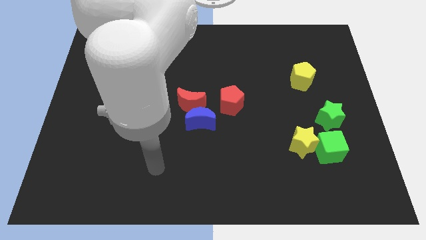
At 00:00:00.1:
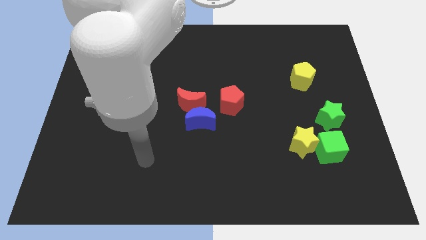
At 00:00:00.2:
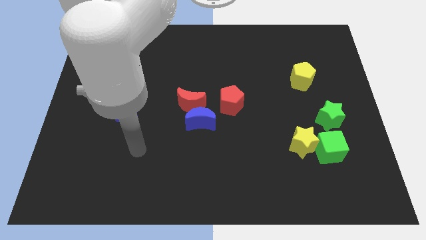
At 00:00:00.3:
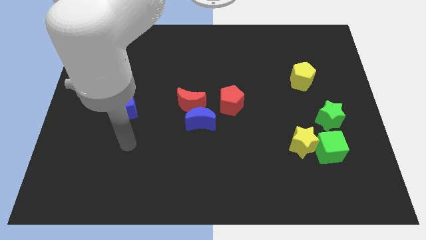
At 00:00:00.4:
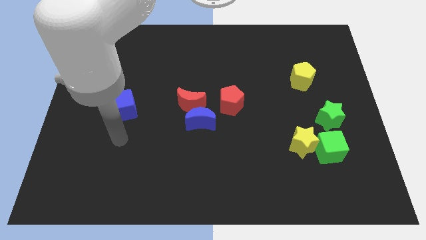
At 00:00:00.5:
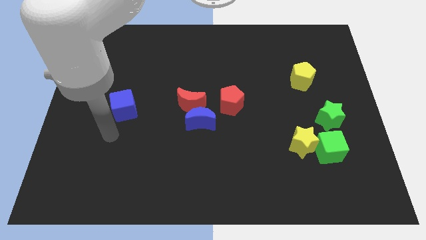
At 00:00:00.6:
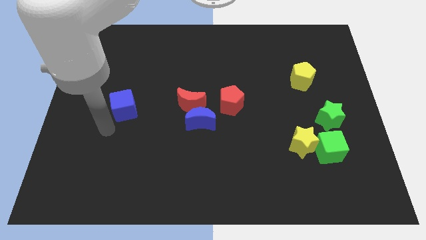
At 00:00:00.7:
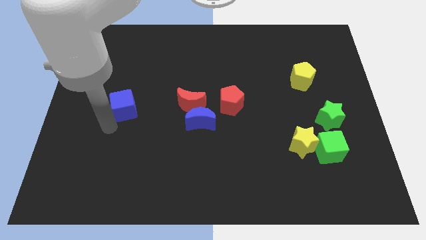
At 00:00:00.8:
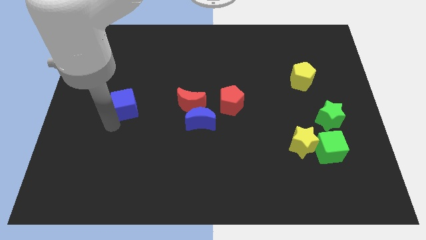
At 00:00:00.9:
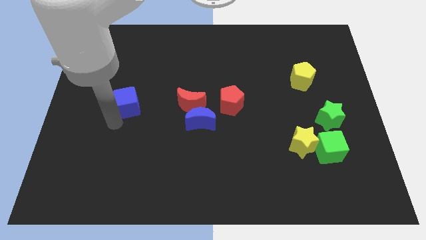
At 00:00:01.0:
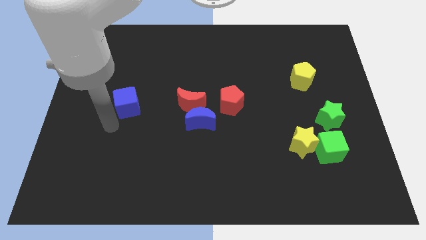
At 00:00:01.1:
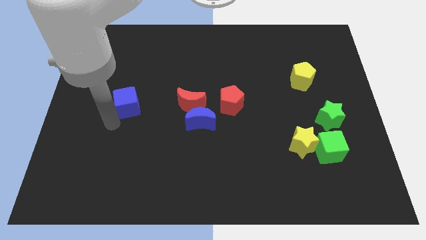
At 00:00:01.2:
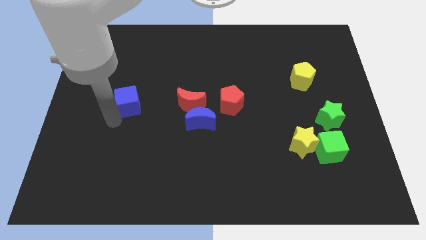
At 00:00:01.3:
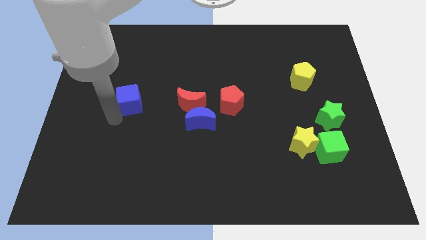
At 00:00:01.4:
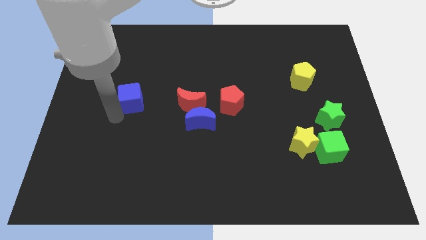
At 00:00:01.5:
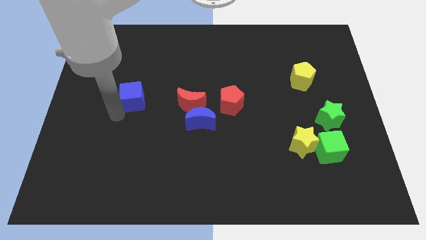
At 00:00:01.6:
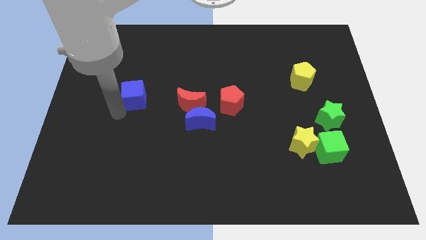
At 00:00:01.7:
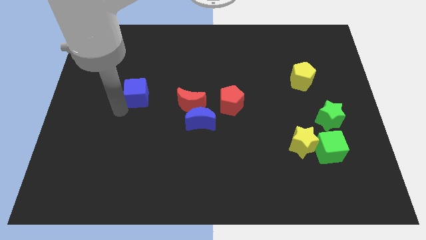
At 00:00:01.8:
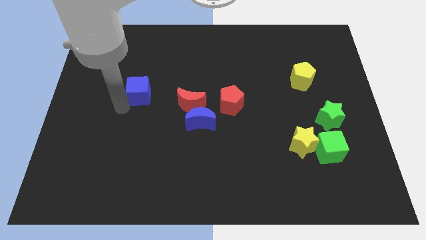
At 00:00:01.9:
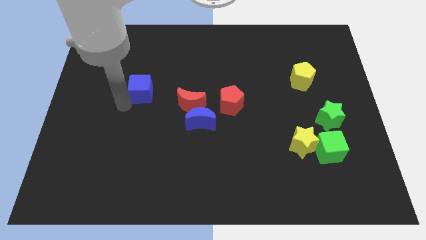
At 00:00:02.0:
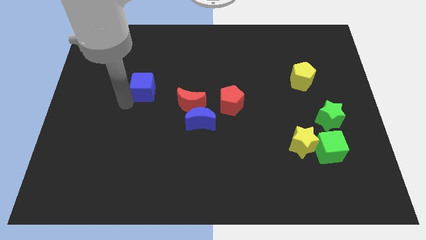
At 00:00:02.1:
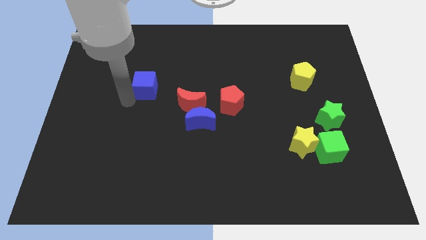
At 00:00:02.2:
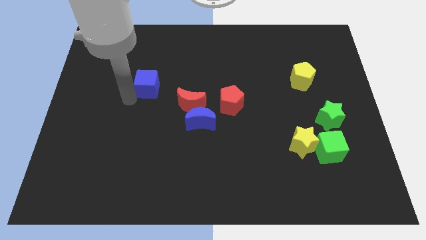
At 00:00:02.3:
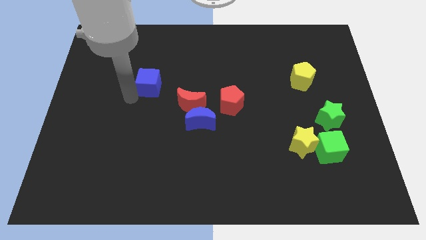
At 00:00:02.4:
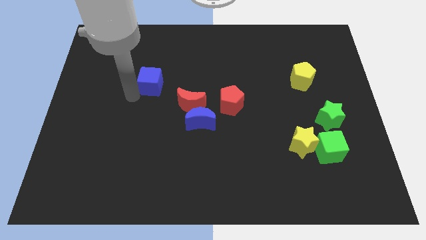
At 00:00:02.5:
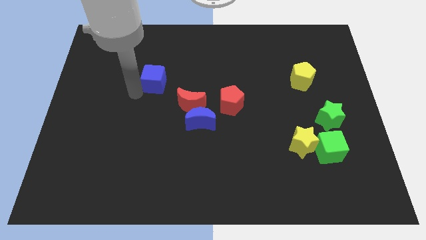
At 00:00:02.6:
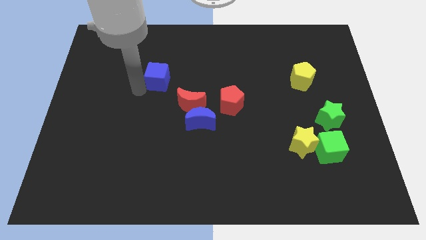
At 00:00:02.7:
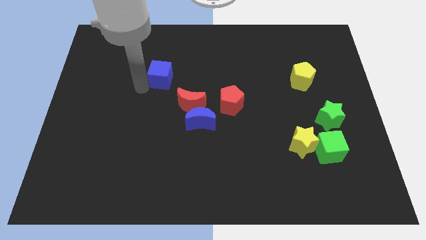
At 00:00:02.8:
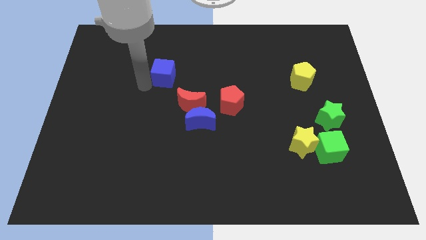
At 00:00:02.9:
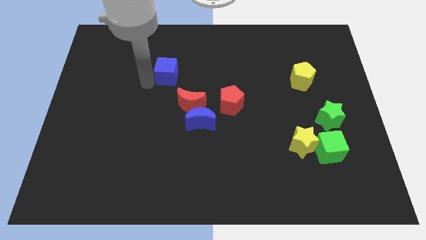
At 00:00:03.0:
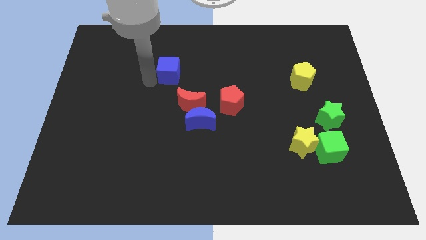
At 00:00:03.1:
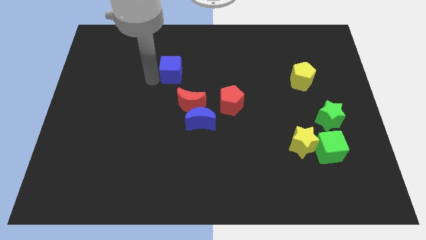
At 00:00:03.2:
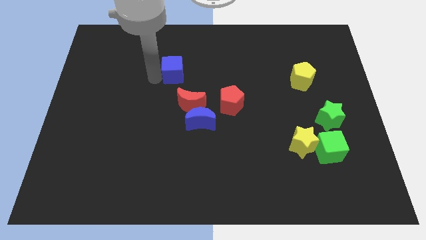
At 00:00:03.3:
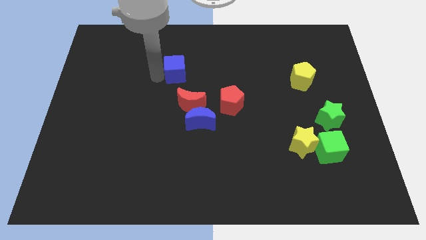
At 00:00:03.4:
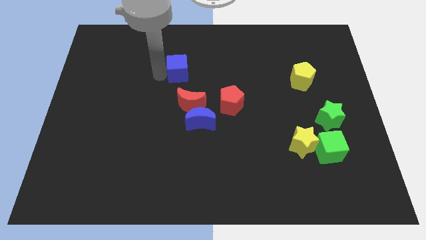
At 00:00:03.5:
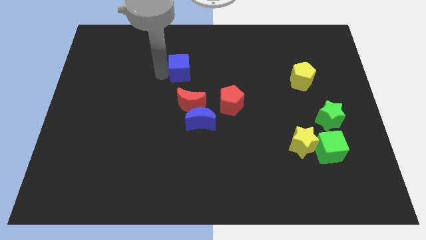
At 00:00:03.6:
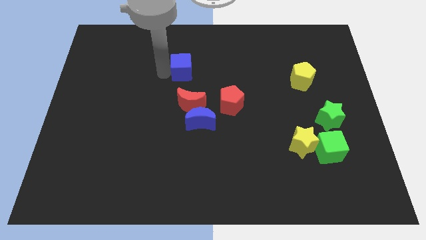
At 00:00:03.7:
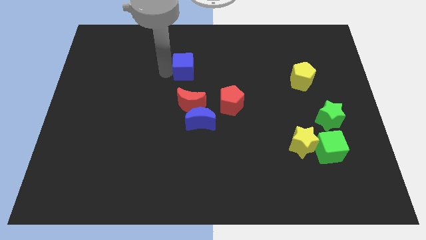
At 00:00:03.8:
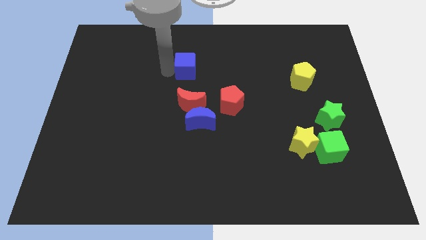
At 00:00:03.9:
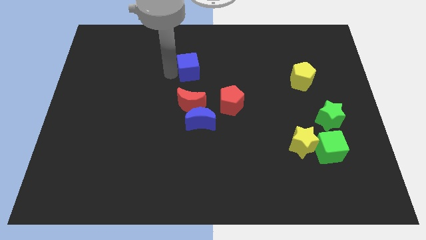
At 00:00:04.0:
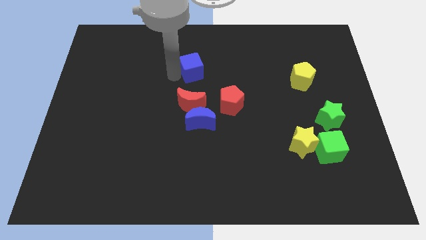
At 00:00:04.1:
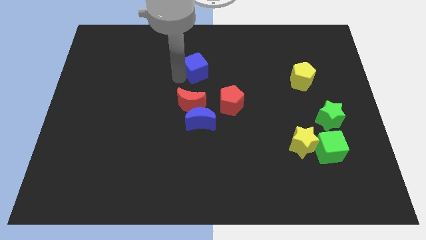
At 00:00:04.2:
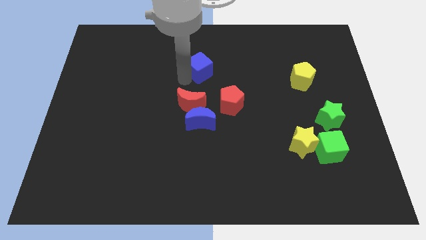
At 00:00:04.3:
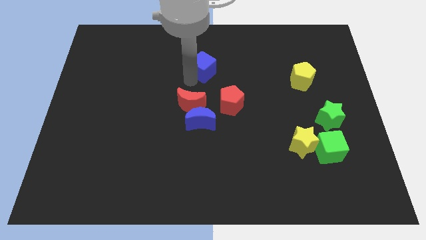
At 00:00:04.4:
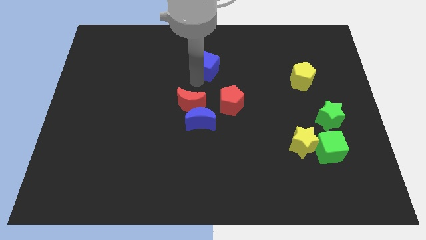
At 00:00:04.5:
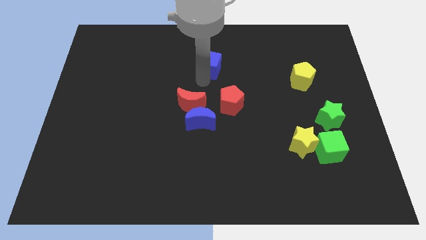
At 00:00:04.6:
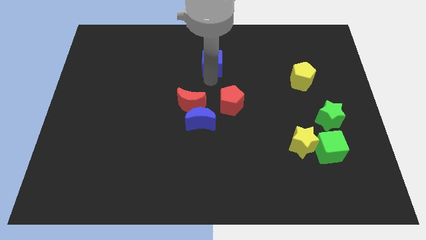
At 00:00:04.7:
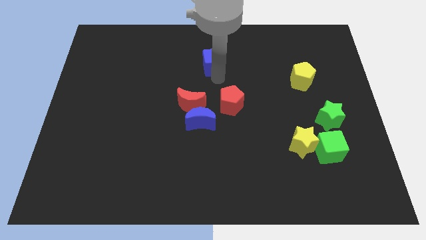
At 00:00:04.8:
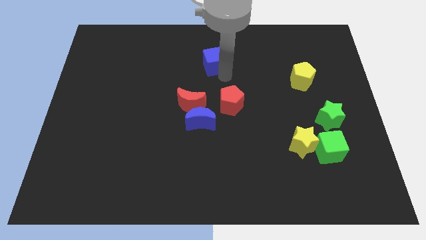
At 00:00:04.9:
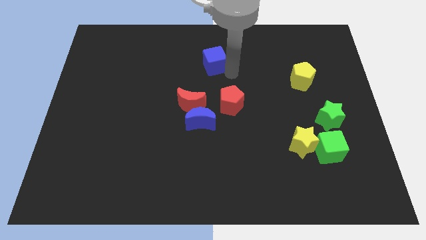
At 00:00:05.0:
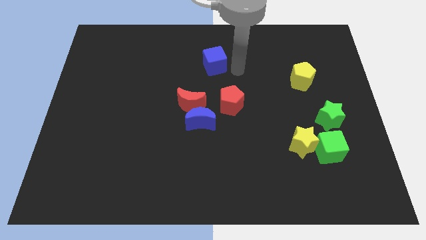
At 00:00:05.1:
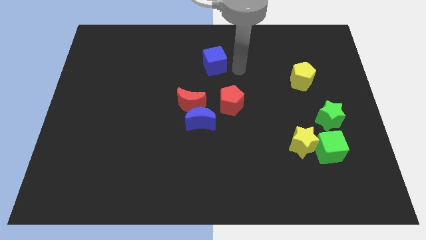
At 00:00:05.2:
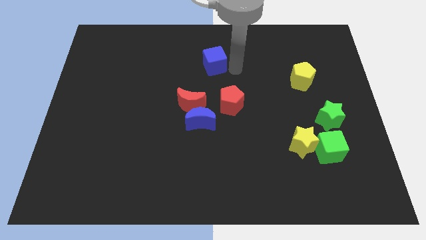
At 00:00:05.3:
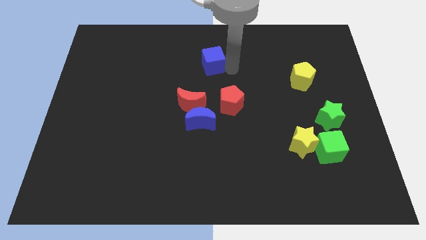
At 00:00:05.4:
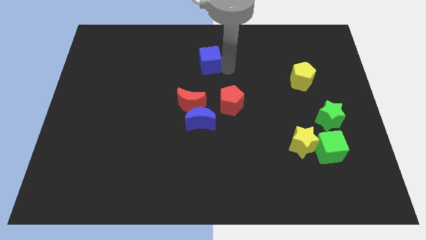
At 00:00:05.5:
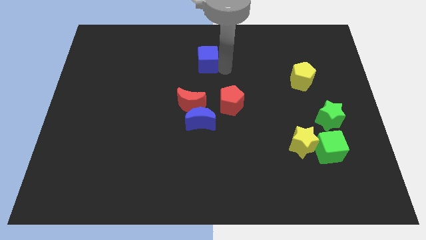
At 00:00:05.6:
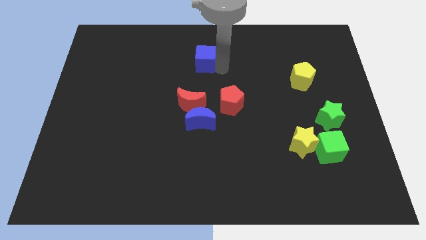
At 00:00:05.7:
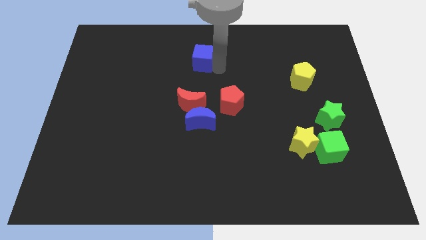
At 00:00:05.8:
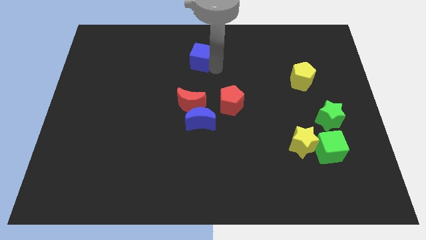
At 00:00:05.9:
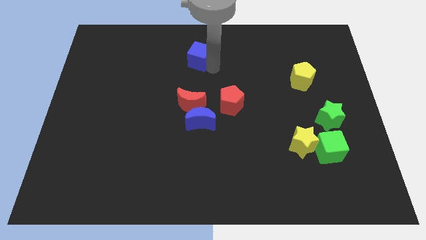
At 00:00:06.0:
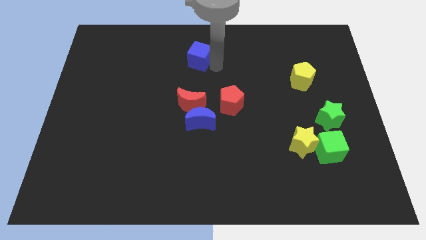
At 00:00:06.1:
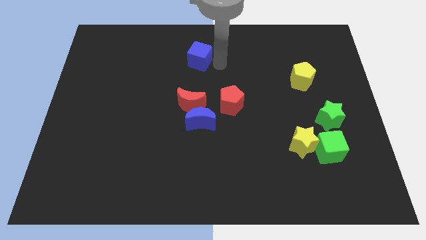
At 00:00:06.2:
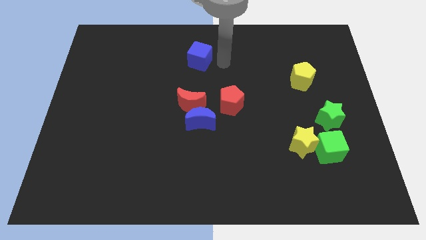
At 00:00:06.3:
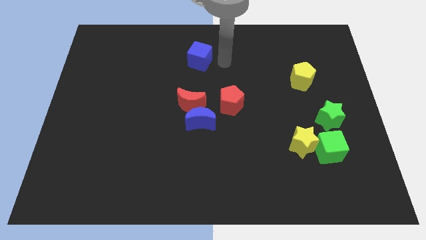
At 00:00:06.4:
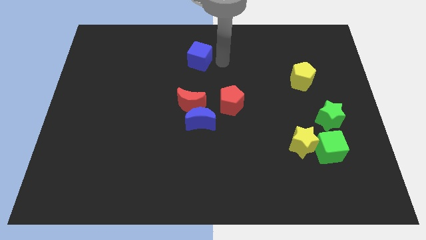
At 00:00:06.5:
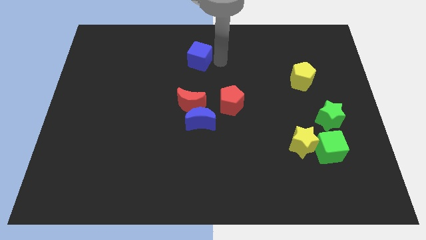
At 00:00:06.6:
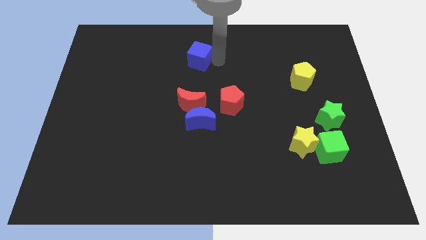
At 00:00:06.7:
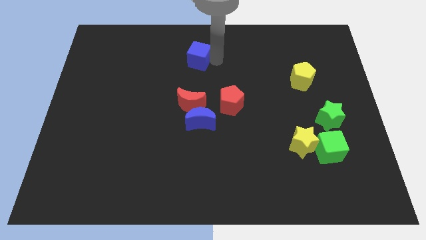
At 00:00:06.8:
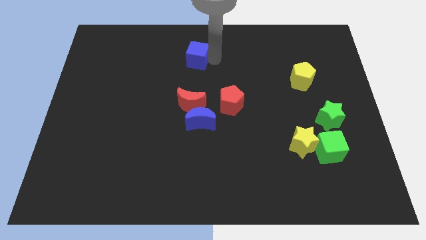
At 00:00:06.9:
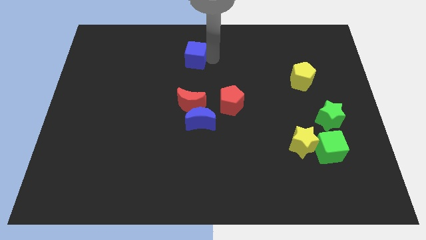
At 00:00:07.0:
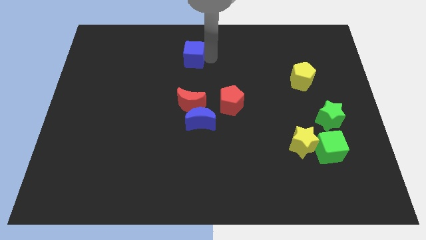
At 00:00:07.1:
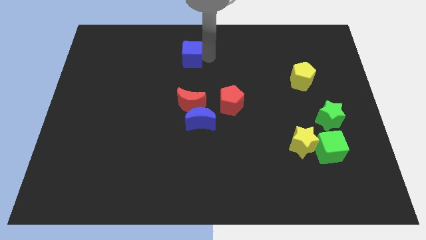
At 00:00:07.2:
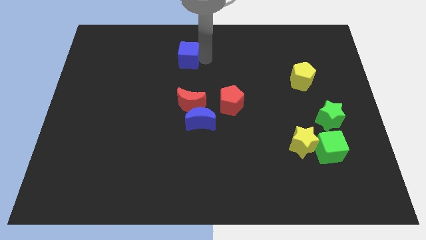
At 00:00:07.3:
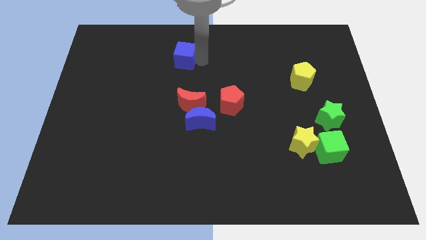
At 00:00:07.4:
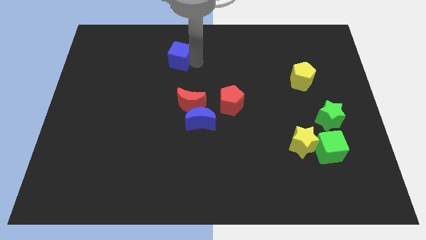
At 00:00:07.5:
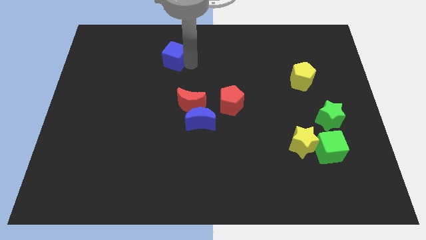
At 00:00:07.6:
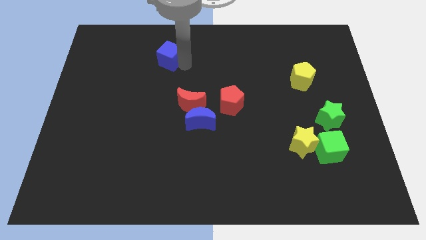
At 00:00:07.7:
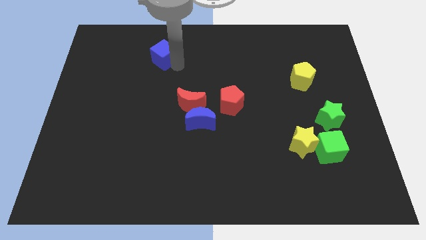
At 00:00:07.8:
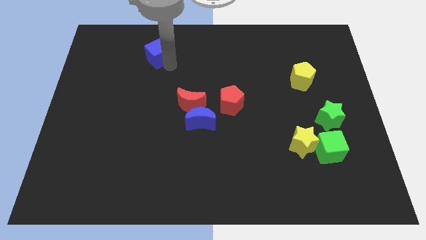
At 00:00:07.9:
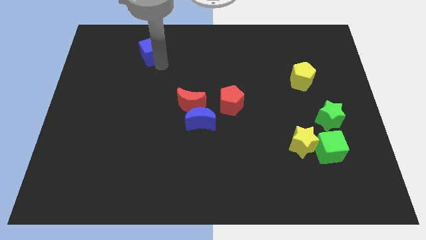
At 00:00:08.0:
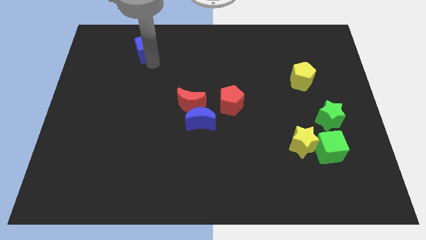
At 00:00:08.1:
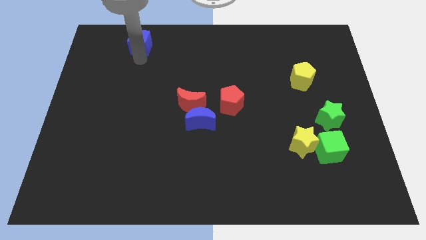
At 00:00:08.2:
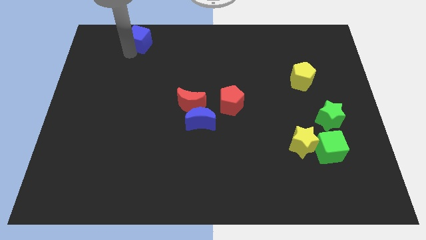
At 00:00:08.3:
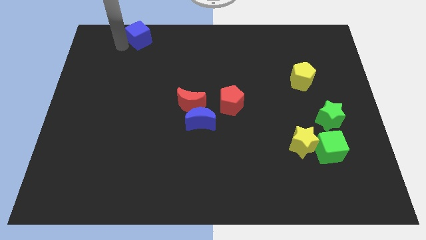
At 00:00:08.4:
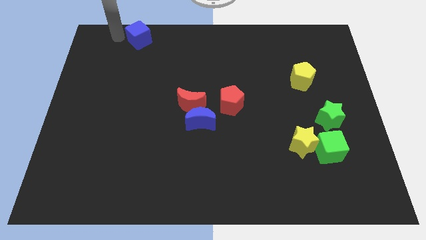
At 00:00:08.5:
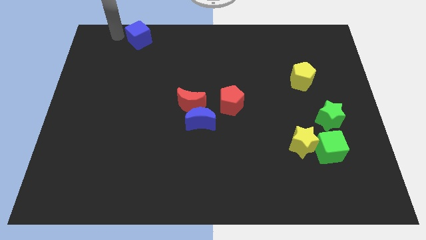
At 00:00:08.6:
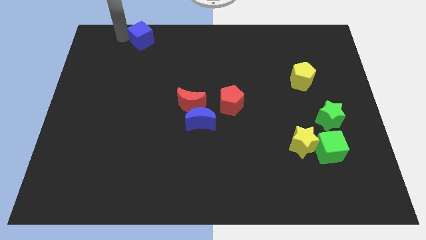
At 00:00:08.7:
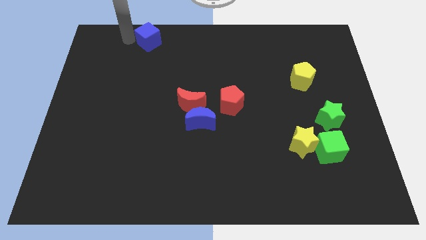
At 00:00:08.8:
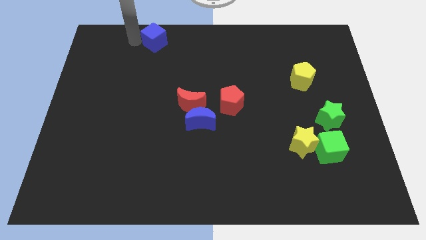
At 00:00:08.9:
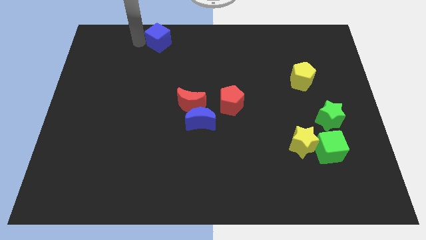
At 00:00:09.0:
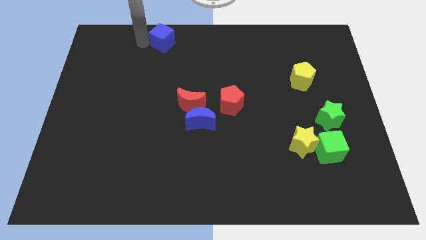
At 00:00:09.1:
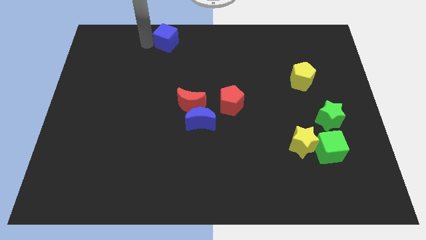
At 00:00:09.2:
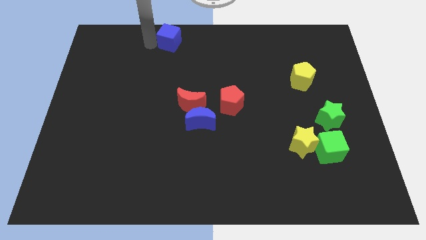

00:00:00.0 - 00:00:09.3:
slide the blue cube to the top side
